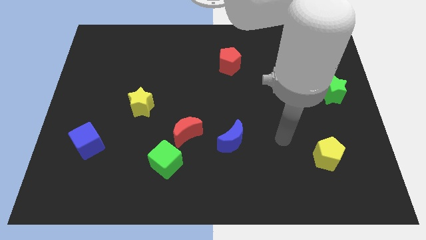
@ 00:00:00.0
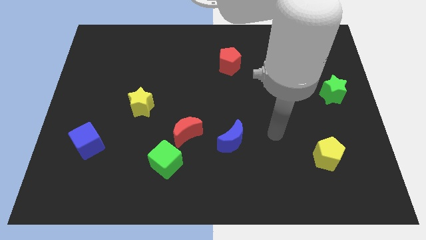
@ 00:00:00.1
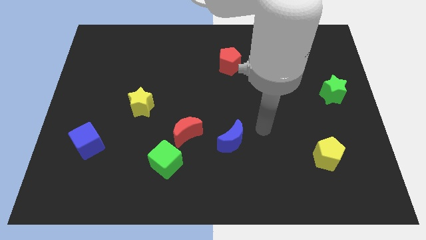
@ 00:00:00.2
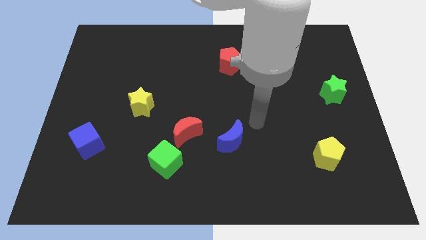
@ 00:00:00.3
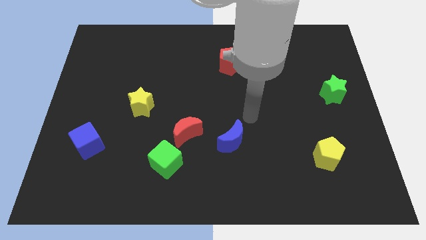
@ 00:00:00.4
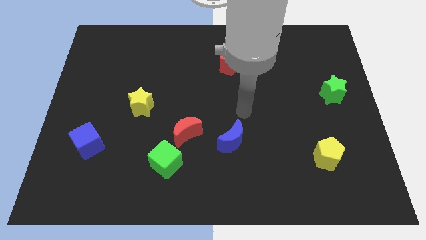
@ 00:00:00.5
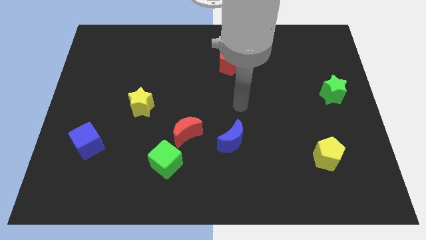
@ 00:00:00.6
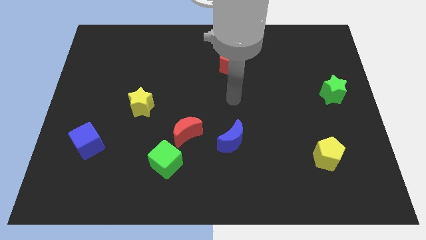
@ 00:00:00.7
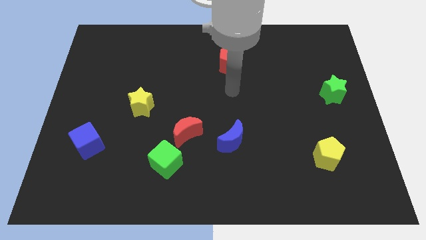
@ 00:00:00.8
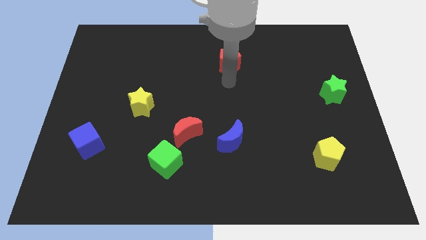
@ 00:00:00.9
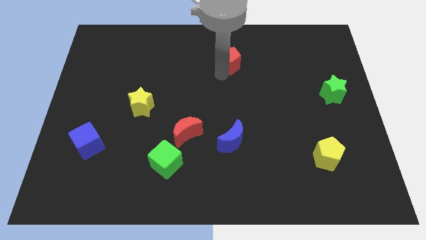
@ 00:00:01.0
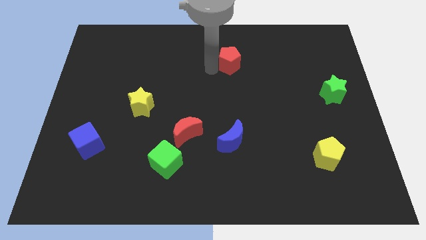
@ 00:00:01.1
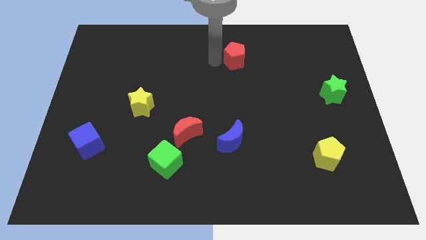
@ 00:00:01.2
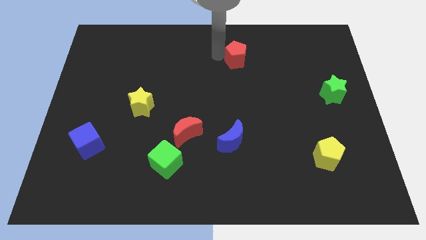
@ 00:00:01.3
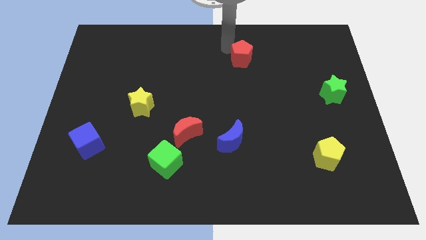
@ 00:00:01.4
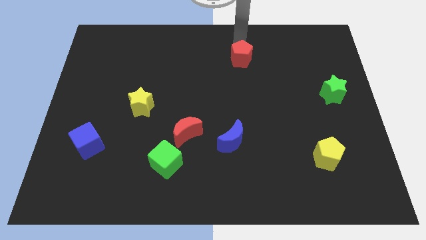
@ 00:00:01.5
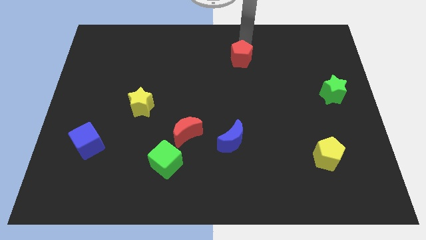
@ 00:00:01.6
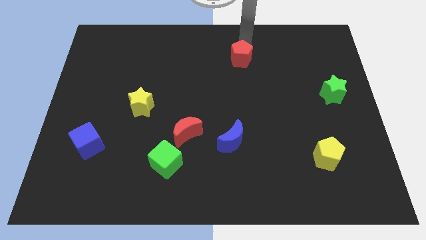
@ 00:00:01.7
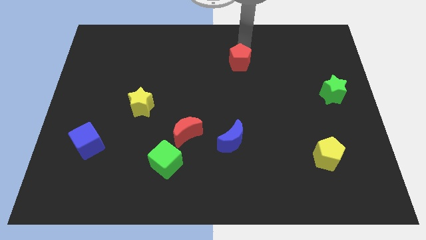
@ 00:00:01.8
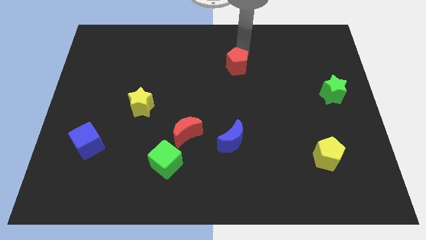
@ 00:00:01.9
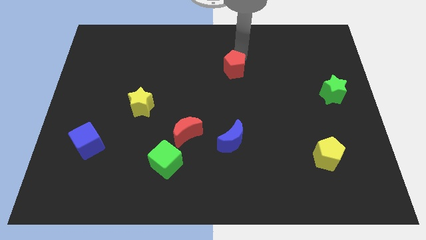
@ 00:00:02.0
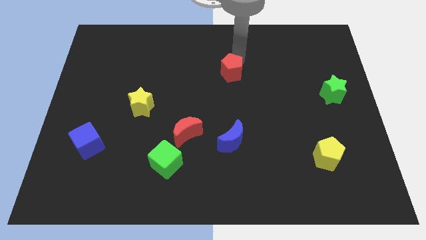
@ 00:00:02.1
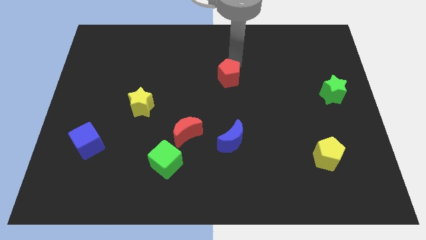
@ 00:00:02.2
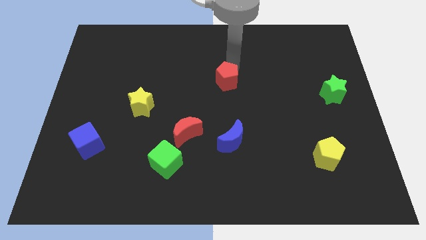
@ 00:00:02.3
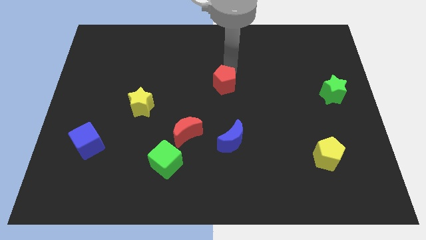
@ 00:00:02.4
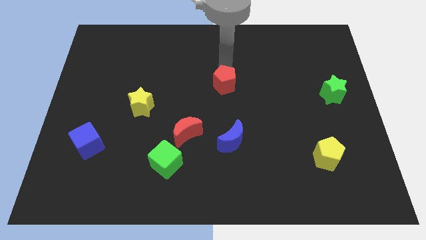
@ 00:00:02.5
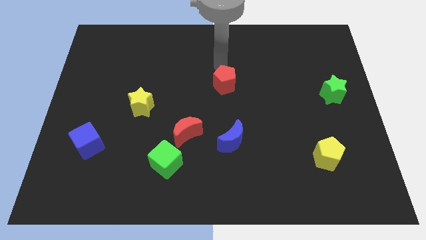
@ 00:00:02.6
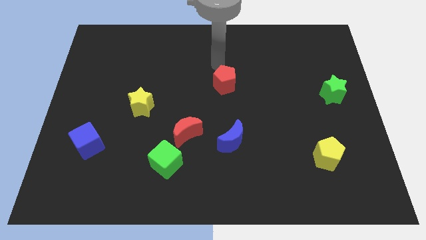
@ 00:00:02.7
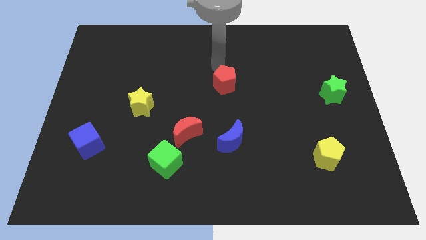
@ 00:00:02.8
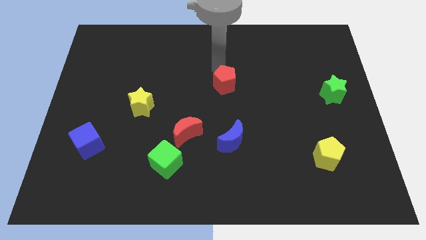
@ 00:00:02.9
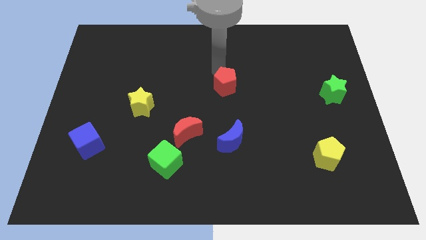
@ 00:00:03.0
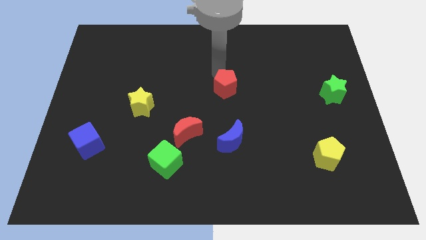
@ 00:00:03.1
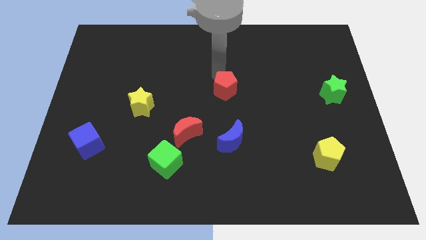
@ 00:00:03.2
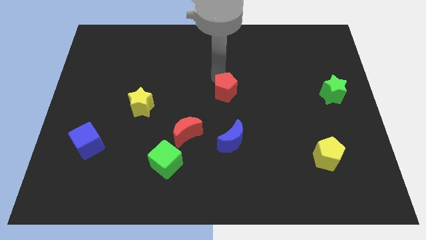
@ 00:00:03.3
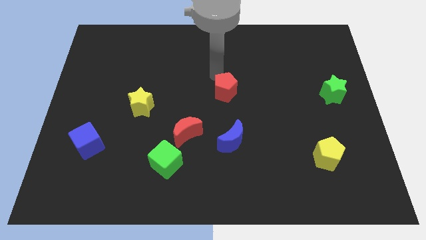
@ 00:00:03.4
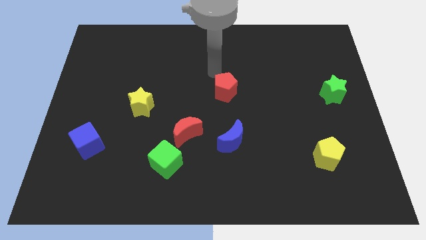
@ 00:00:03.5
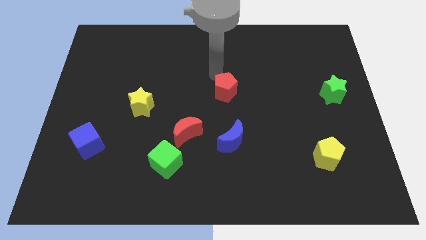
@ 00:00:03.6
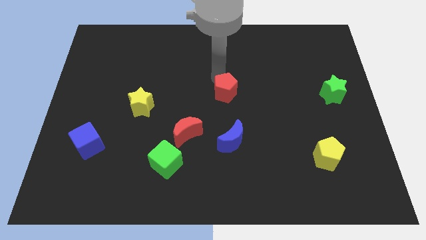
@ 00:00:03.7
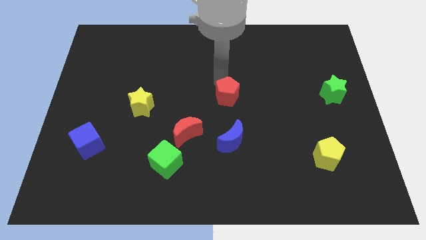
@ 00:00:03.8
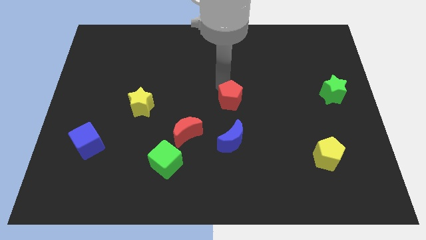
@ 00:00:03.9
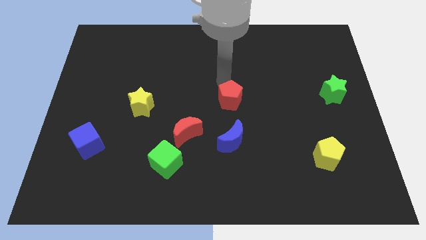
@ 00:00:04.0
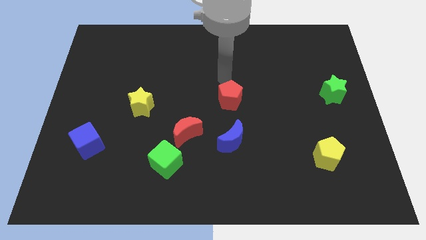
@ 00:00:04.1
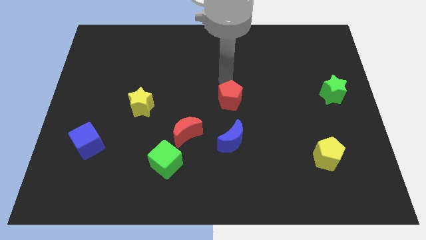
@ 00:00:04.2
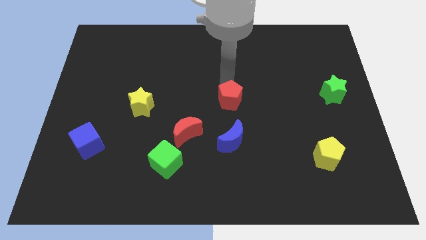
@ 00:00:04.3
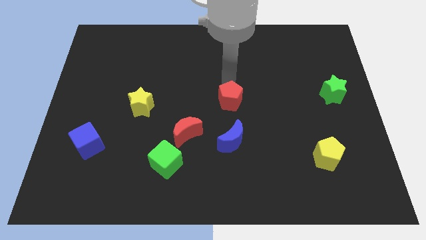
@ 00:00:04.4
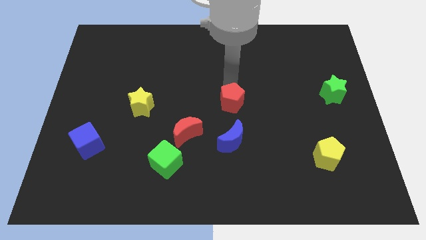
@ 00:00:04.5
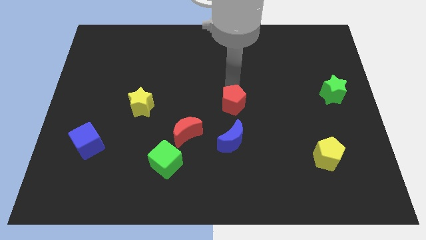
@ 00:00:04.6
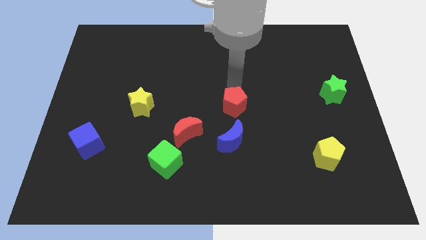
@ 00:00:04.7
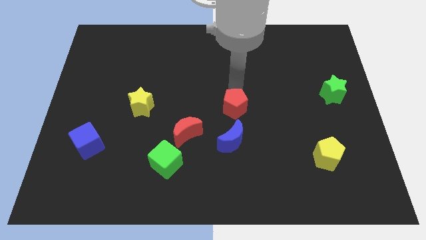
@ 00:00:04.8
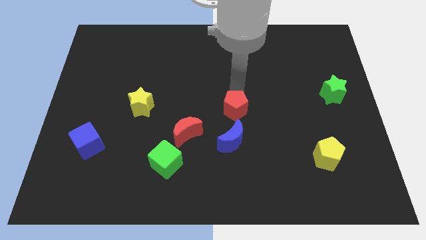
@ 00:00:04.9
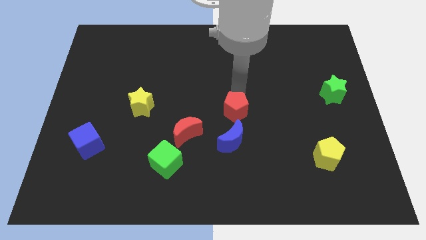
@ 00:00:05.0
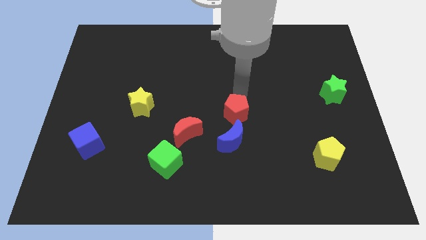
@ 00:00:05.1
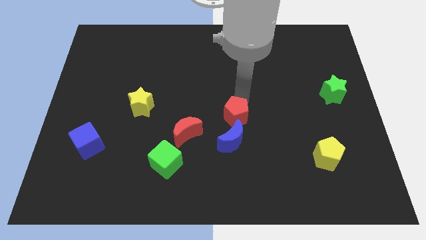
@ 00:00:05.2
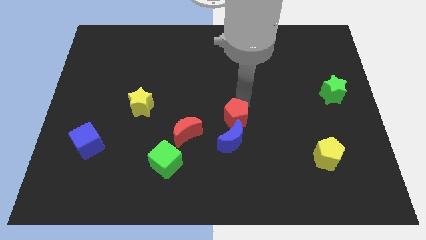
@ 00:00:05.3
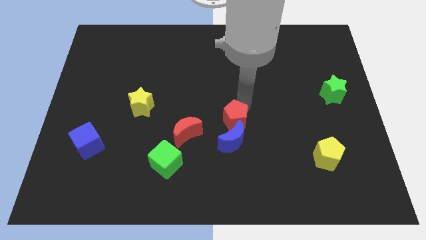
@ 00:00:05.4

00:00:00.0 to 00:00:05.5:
push the red pentagon next to the blue moon

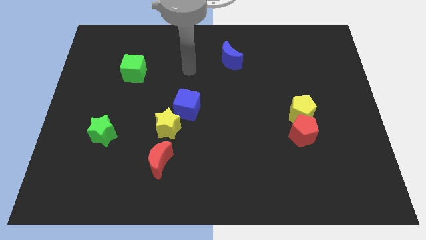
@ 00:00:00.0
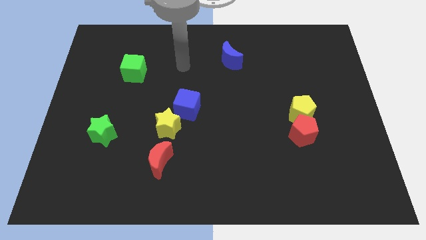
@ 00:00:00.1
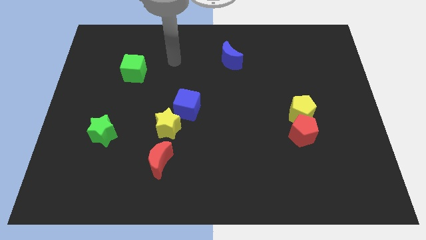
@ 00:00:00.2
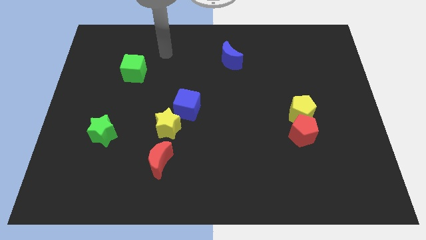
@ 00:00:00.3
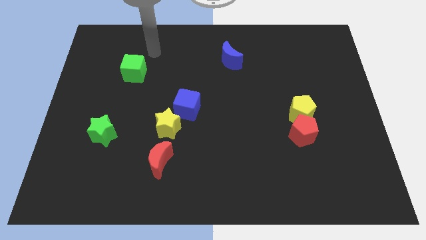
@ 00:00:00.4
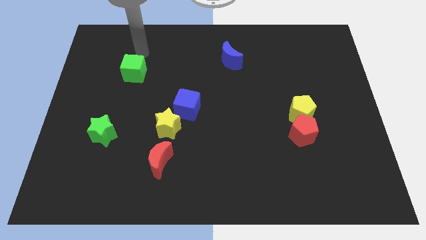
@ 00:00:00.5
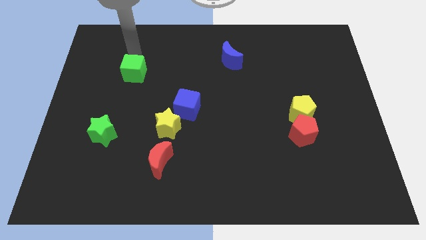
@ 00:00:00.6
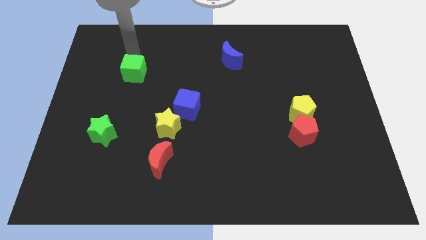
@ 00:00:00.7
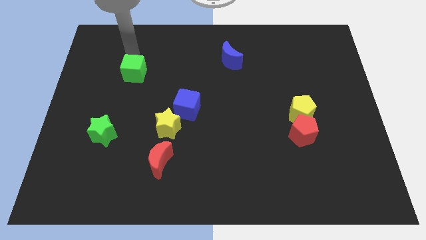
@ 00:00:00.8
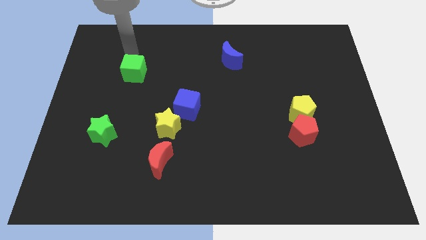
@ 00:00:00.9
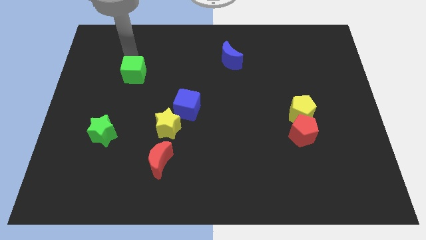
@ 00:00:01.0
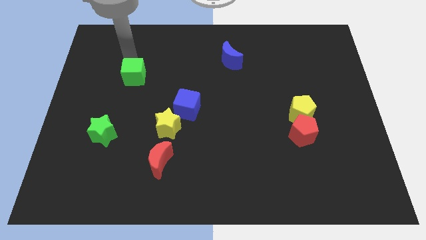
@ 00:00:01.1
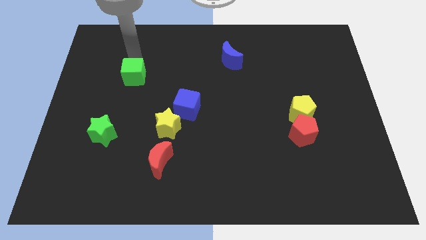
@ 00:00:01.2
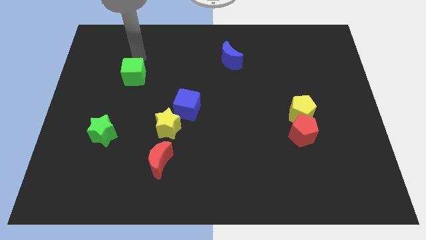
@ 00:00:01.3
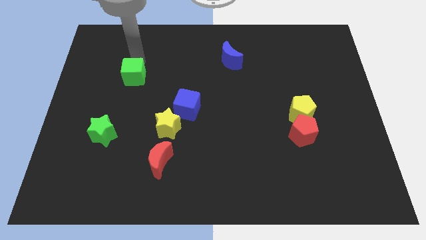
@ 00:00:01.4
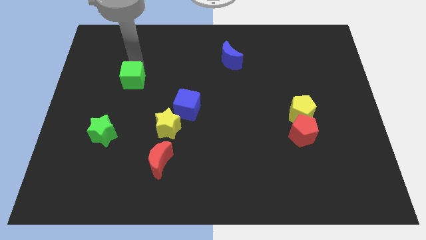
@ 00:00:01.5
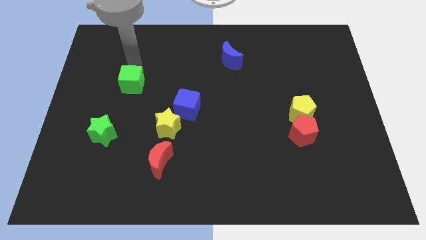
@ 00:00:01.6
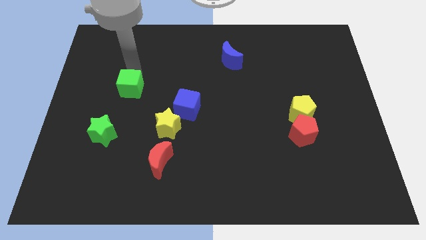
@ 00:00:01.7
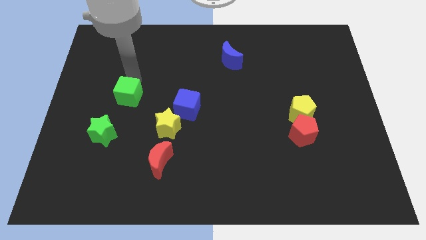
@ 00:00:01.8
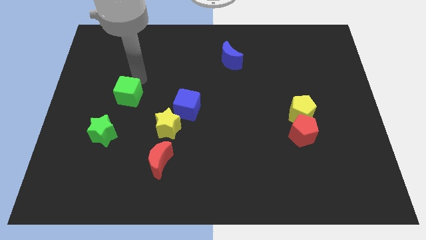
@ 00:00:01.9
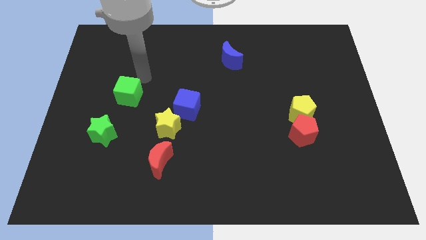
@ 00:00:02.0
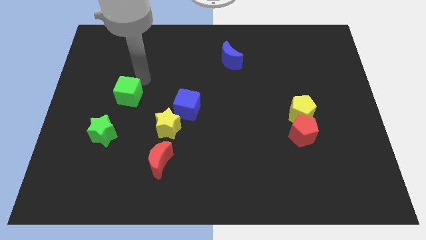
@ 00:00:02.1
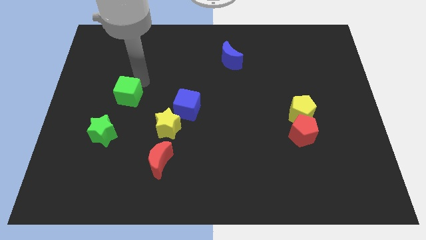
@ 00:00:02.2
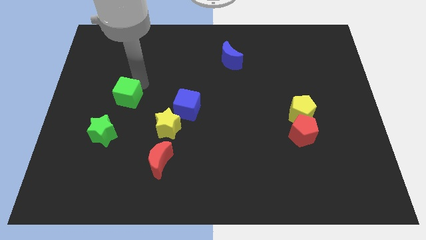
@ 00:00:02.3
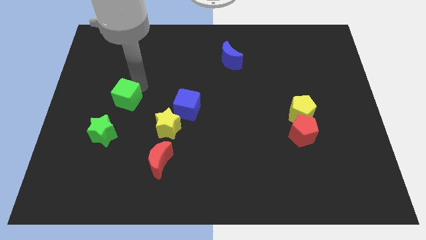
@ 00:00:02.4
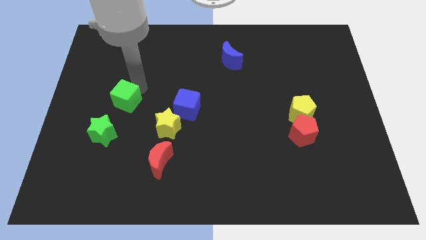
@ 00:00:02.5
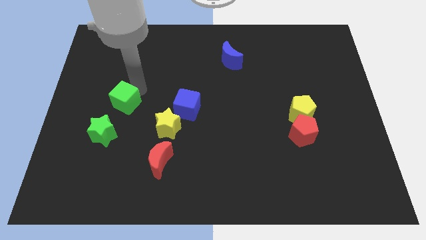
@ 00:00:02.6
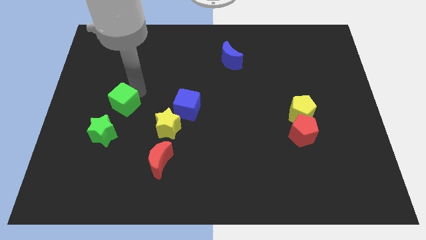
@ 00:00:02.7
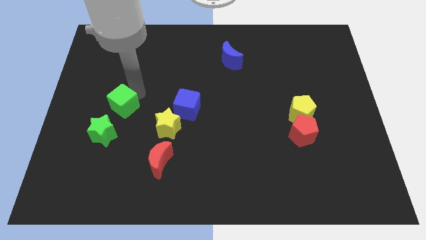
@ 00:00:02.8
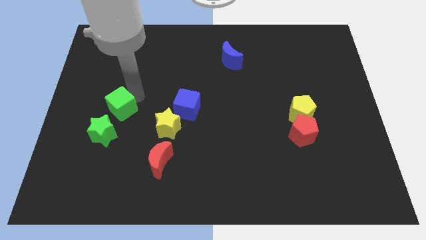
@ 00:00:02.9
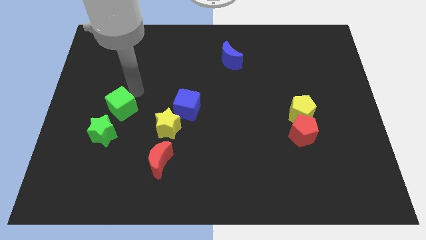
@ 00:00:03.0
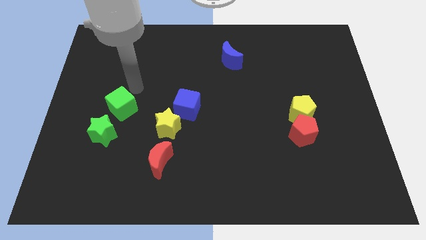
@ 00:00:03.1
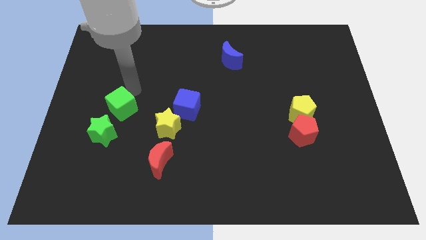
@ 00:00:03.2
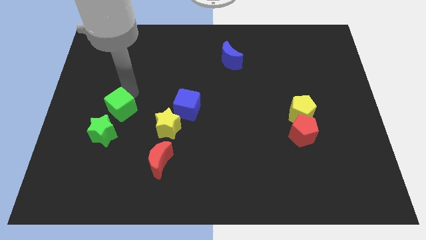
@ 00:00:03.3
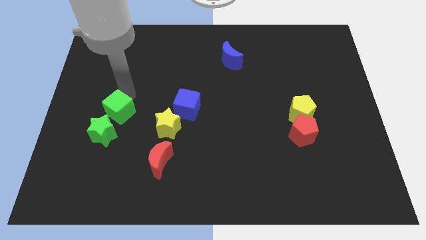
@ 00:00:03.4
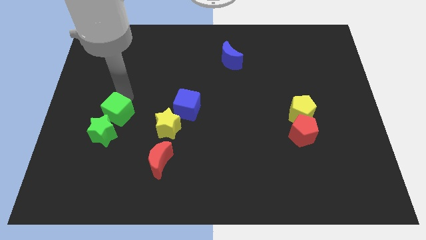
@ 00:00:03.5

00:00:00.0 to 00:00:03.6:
push the green cube close to the green star
